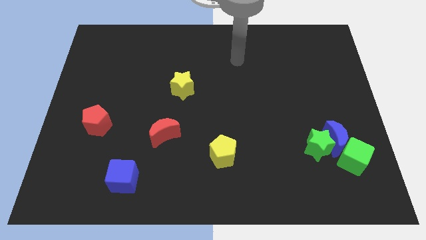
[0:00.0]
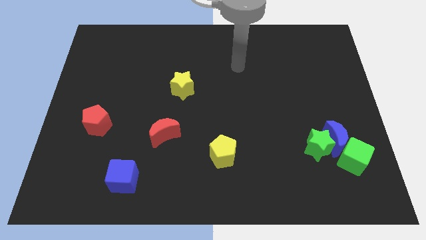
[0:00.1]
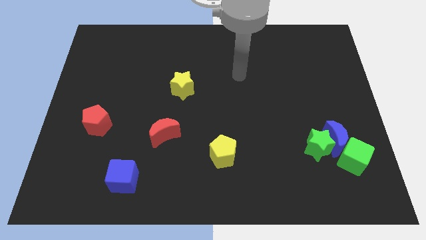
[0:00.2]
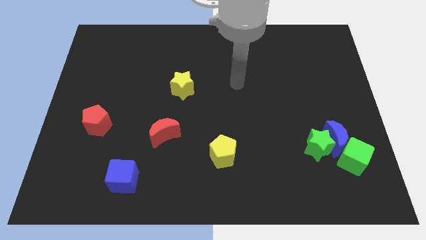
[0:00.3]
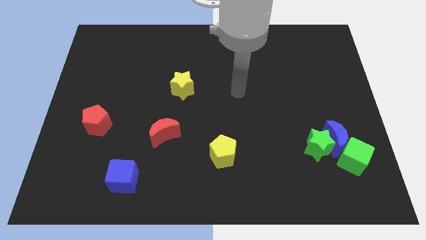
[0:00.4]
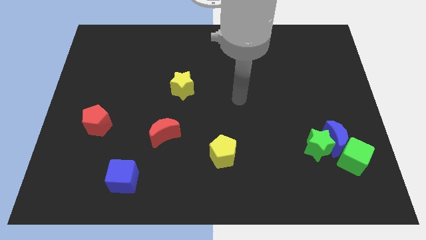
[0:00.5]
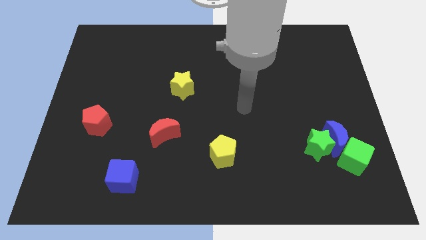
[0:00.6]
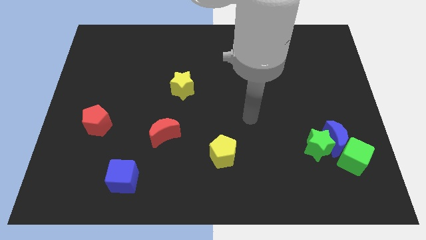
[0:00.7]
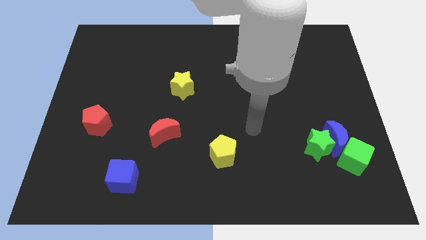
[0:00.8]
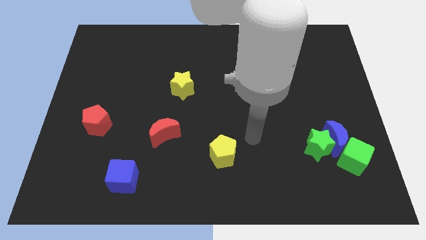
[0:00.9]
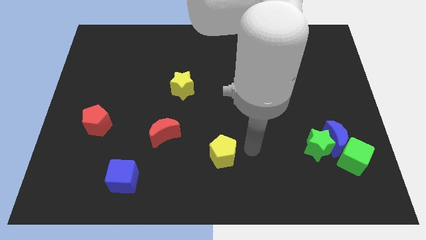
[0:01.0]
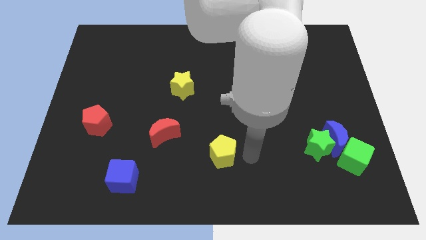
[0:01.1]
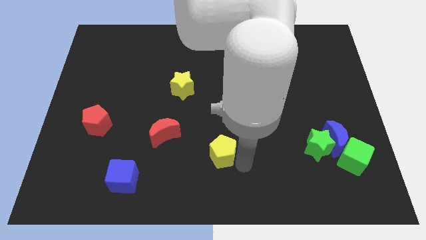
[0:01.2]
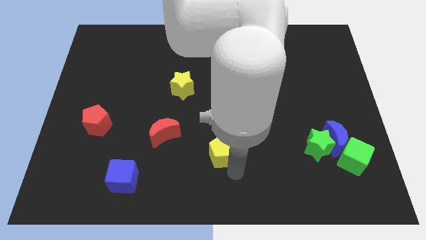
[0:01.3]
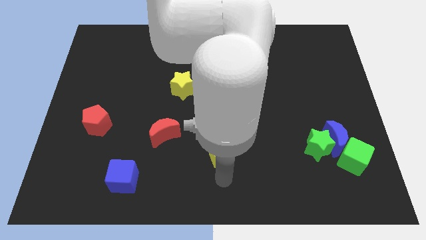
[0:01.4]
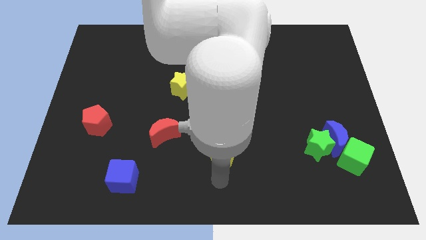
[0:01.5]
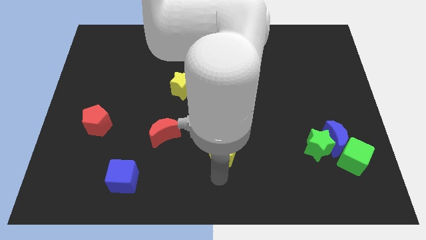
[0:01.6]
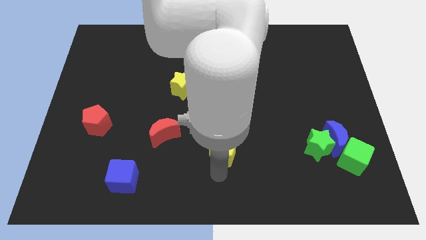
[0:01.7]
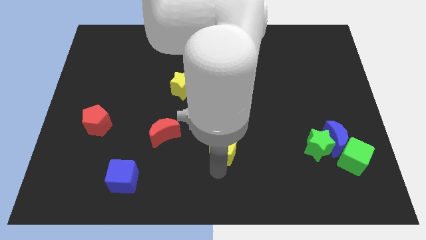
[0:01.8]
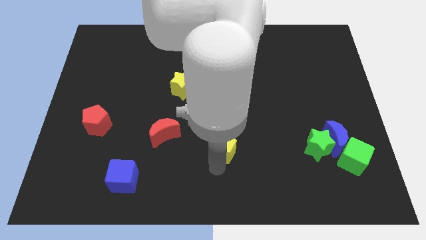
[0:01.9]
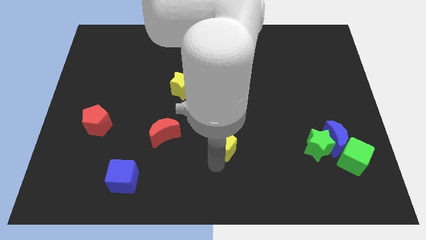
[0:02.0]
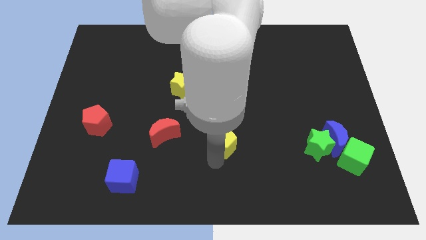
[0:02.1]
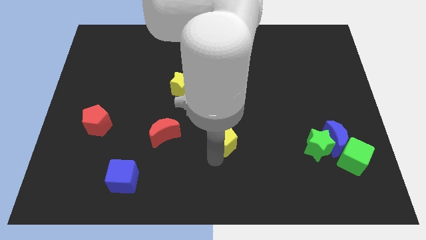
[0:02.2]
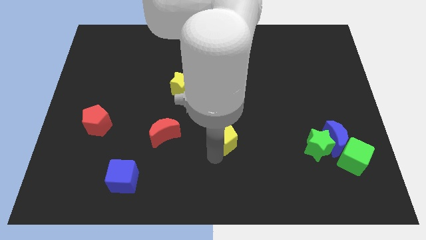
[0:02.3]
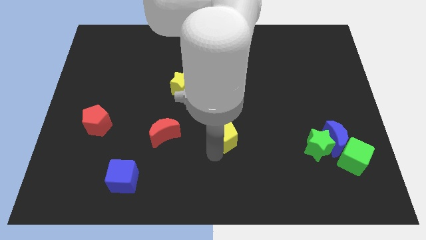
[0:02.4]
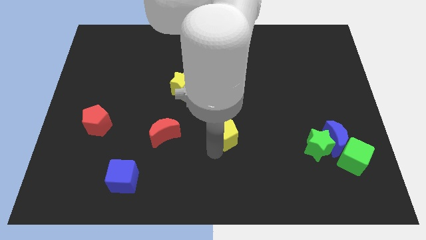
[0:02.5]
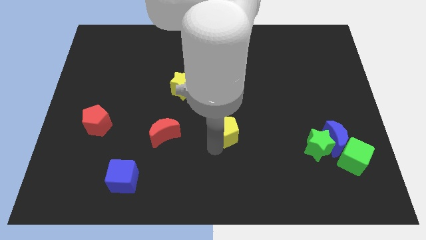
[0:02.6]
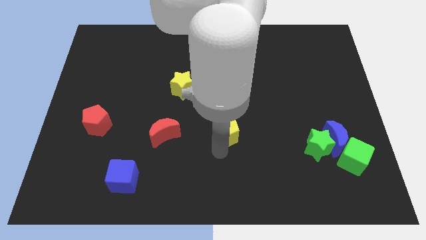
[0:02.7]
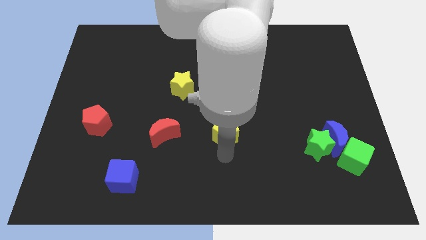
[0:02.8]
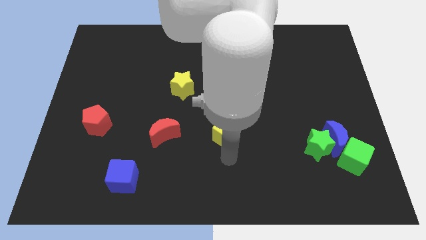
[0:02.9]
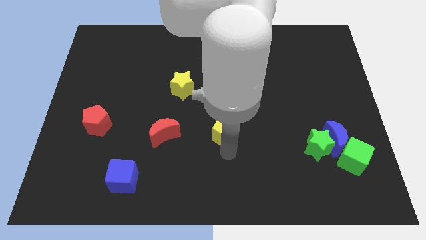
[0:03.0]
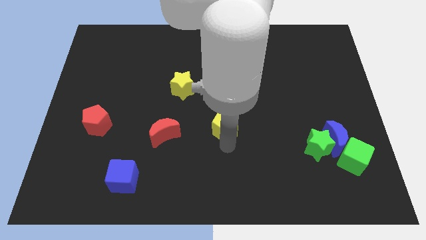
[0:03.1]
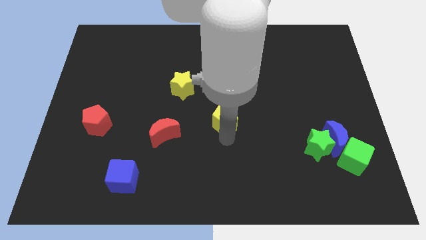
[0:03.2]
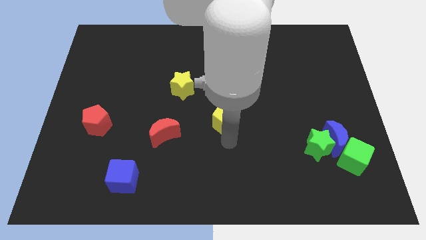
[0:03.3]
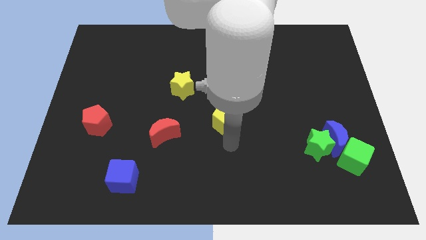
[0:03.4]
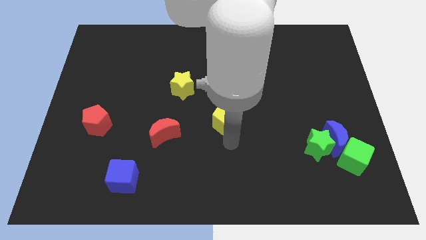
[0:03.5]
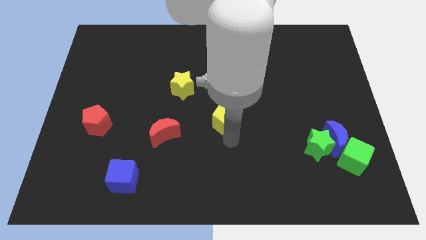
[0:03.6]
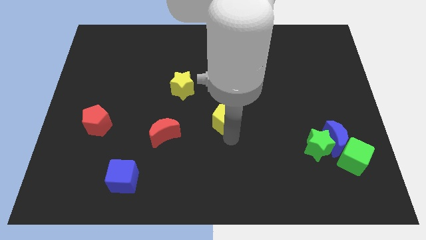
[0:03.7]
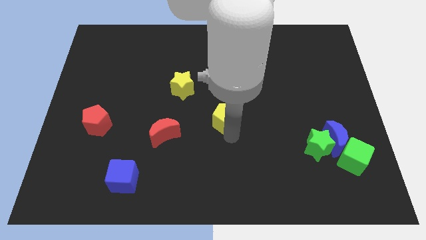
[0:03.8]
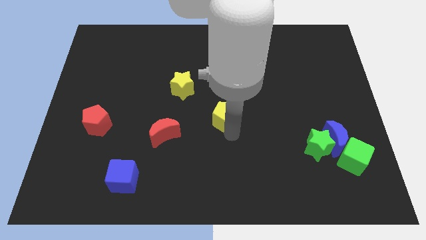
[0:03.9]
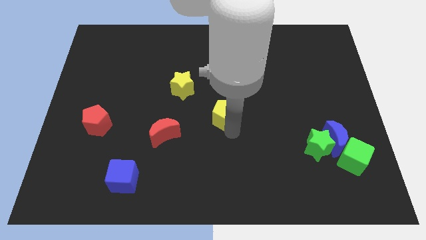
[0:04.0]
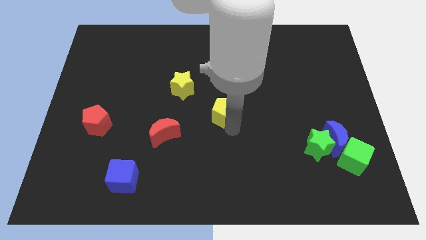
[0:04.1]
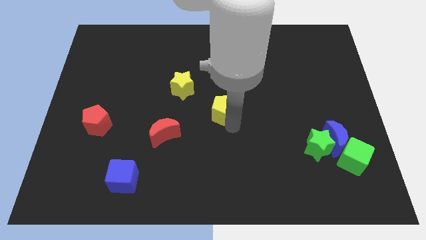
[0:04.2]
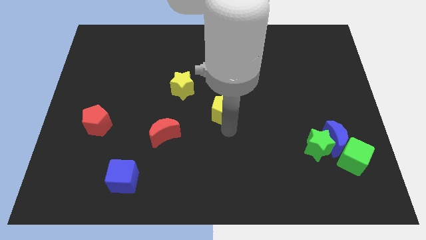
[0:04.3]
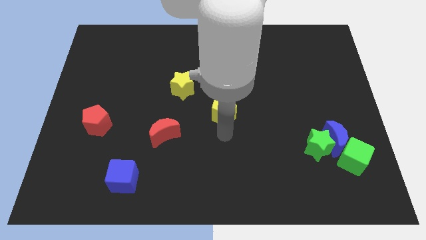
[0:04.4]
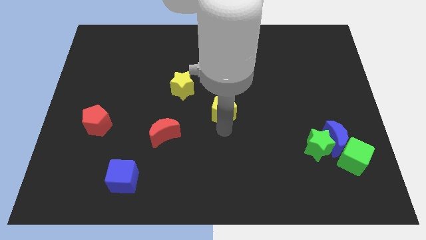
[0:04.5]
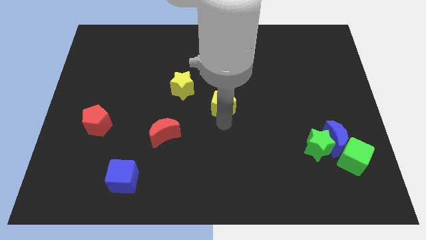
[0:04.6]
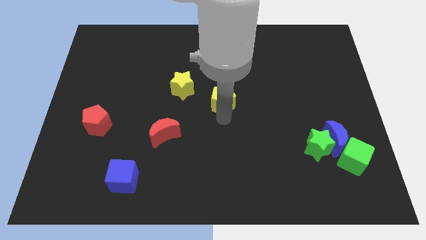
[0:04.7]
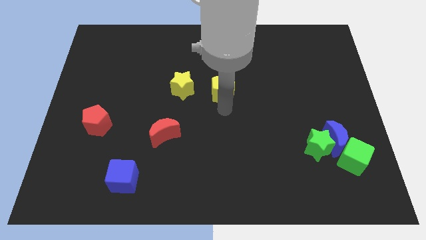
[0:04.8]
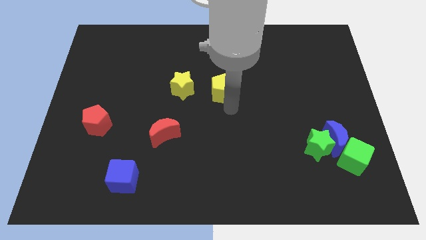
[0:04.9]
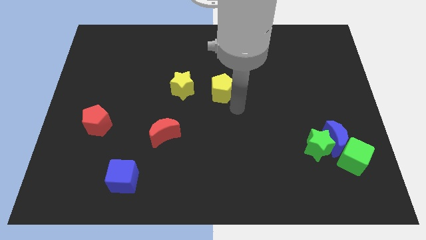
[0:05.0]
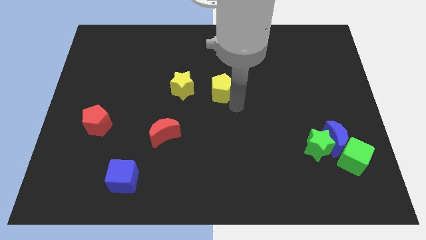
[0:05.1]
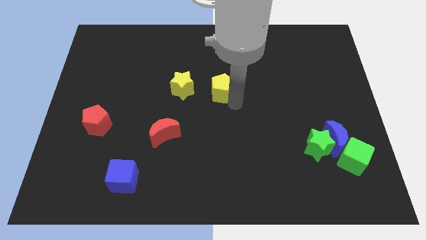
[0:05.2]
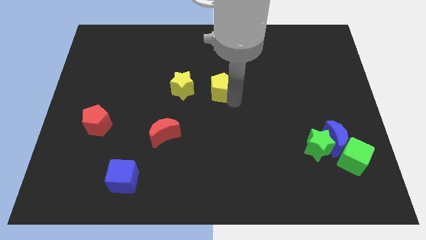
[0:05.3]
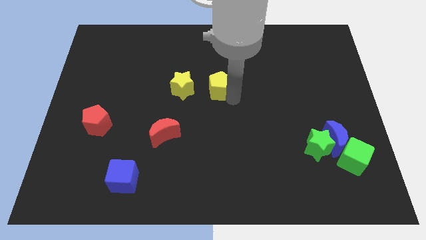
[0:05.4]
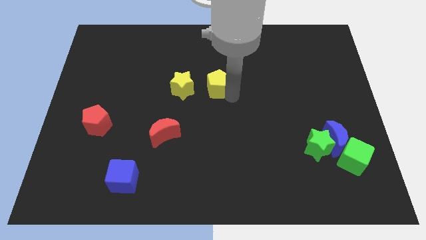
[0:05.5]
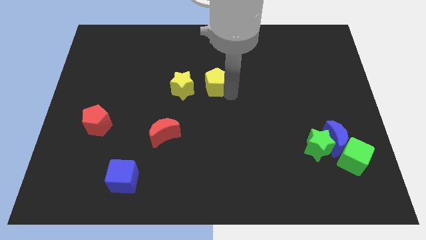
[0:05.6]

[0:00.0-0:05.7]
slide the yellow pentagon diagonally up and to the right of the yellow star

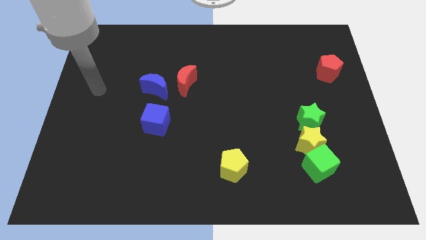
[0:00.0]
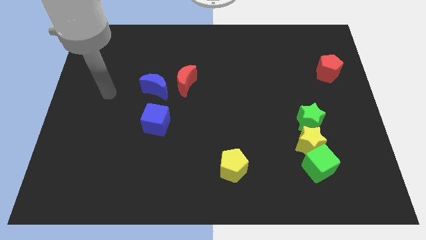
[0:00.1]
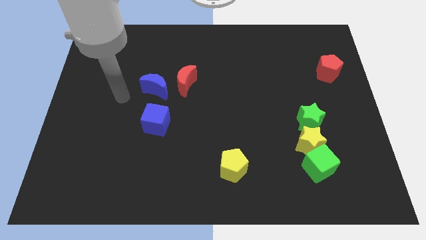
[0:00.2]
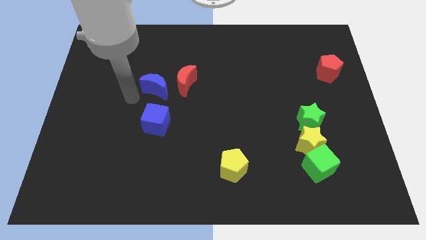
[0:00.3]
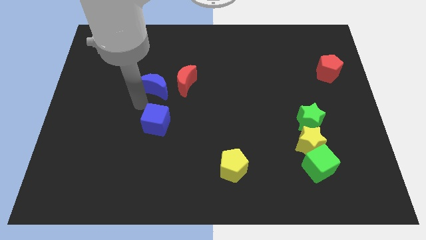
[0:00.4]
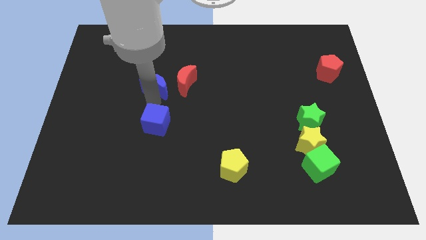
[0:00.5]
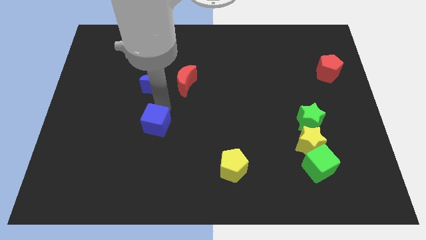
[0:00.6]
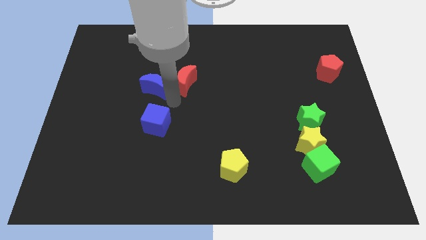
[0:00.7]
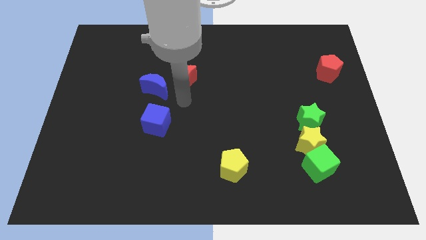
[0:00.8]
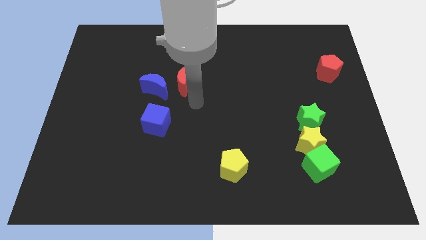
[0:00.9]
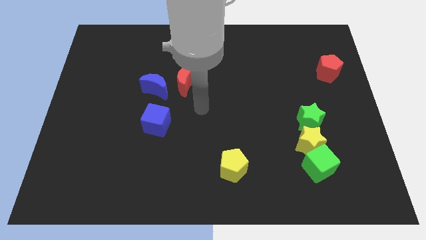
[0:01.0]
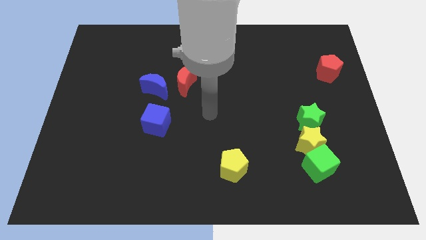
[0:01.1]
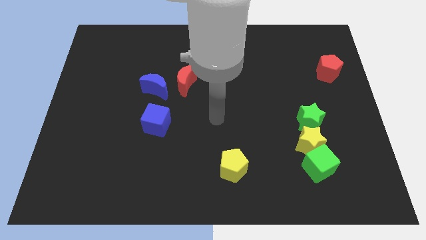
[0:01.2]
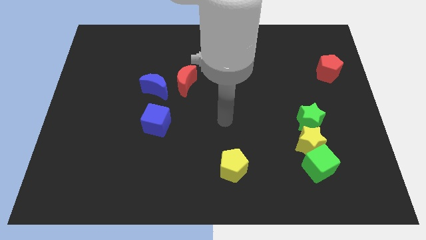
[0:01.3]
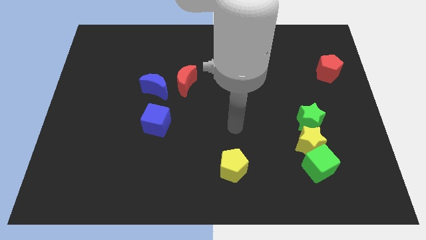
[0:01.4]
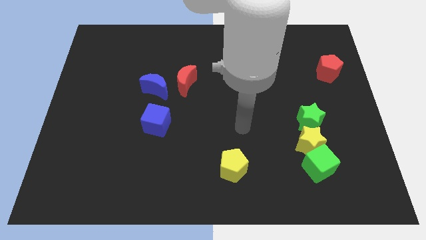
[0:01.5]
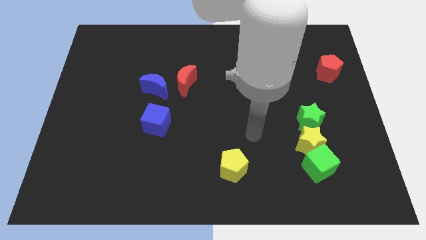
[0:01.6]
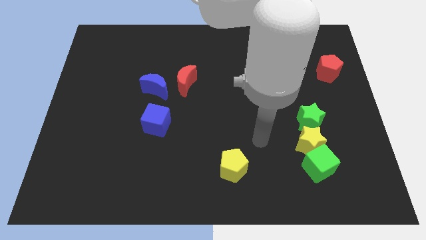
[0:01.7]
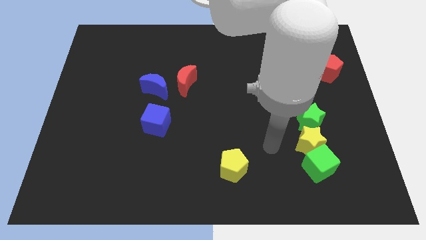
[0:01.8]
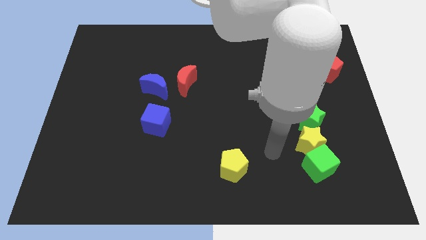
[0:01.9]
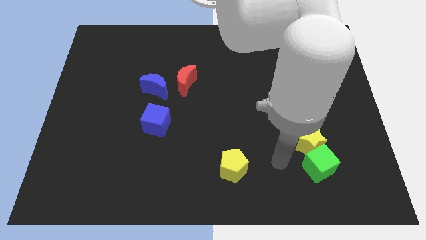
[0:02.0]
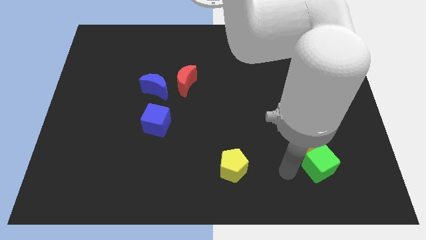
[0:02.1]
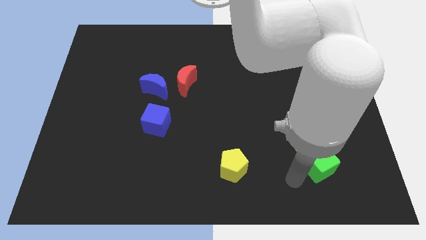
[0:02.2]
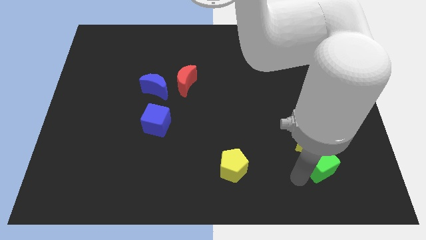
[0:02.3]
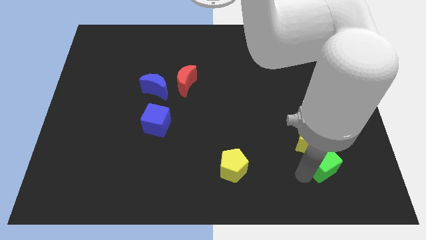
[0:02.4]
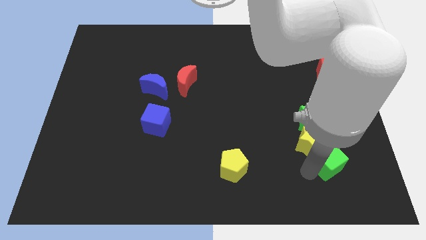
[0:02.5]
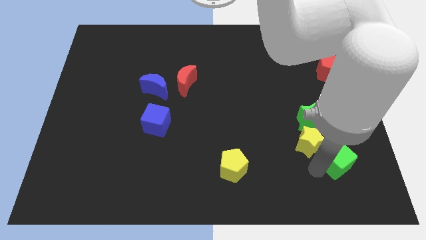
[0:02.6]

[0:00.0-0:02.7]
put the green cube diagonally down and to the right of the green star
